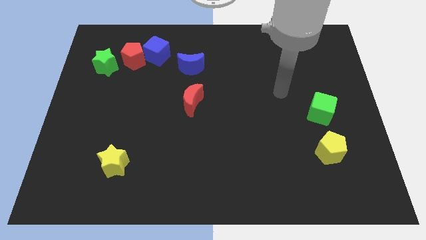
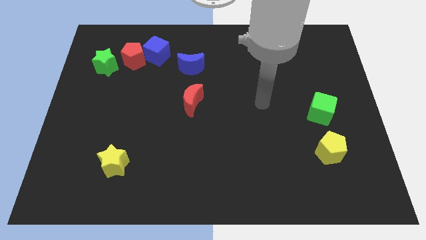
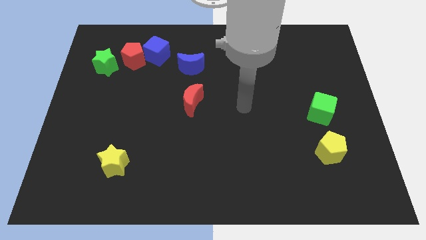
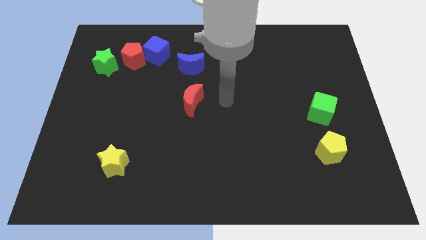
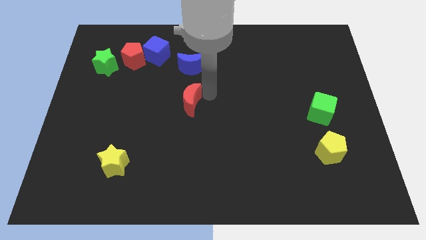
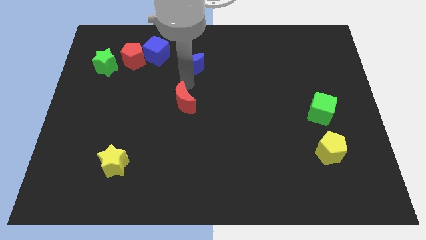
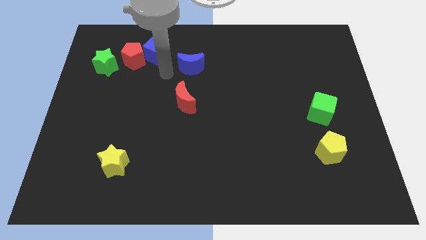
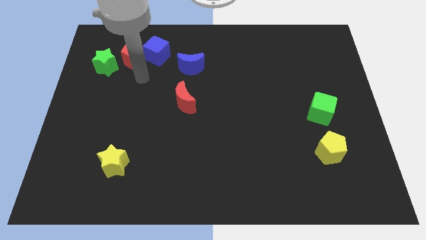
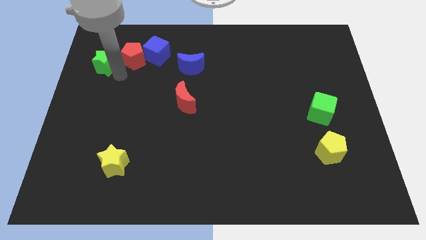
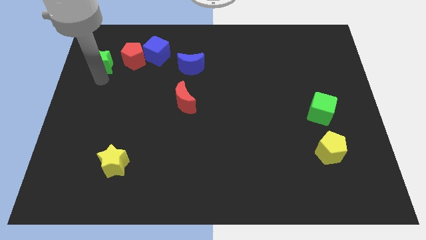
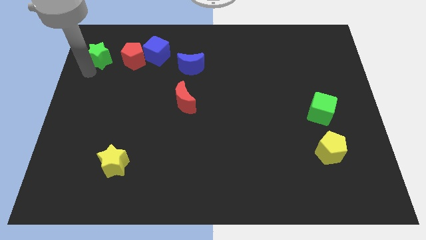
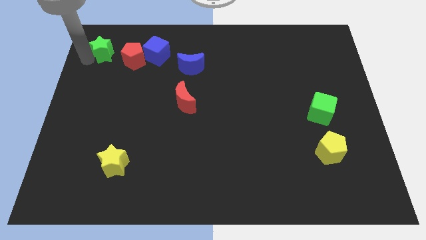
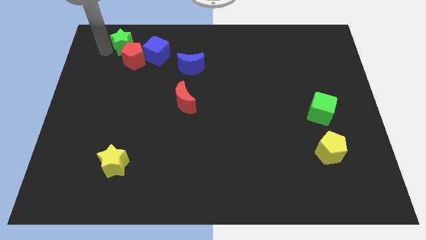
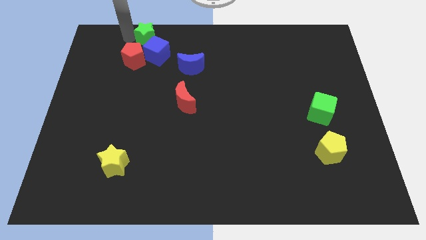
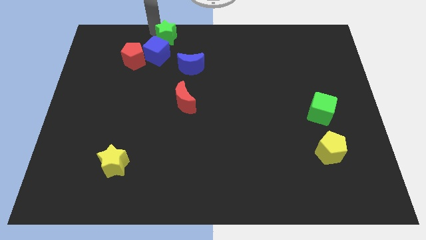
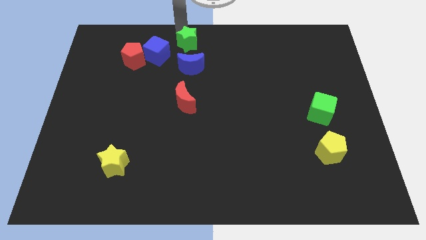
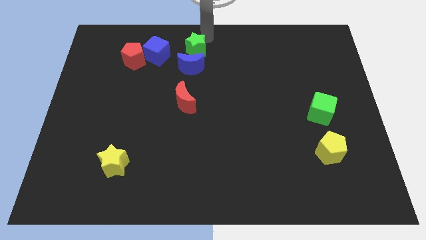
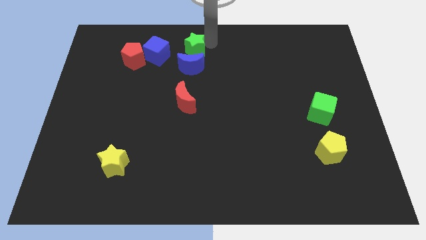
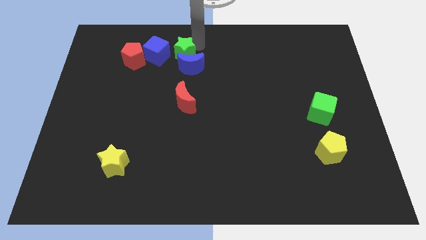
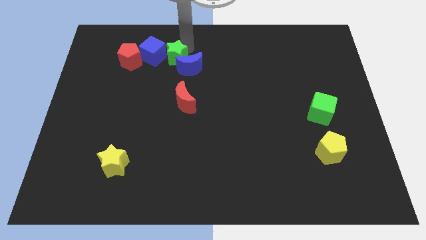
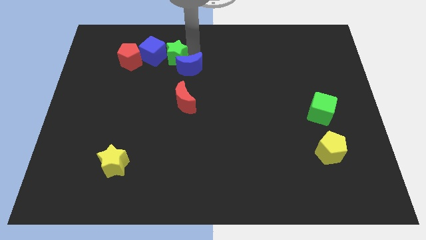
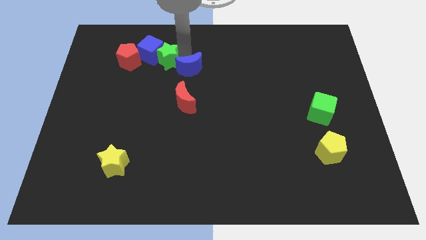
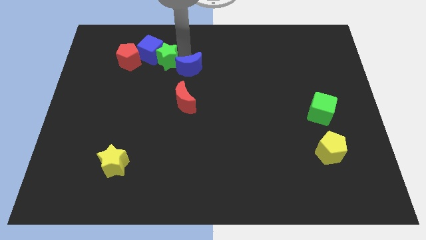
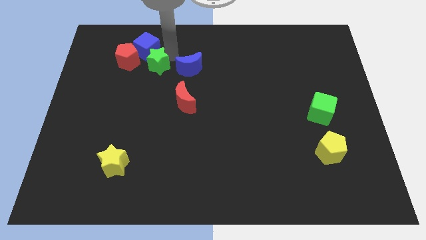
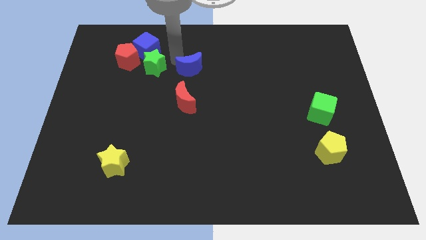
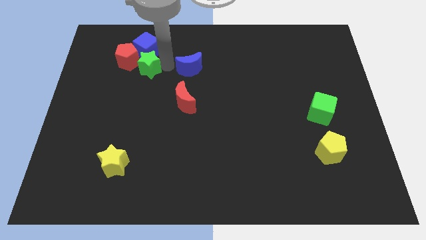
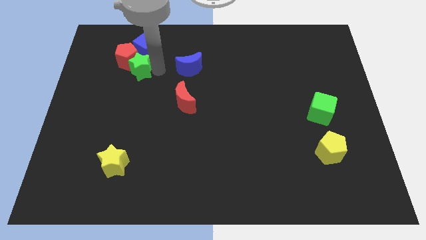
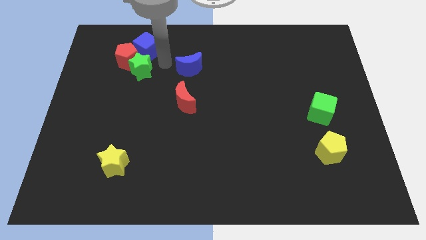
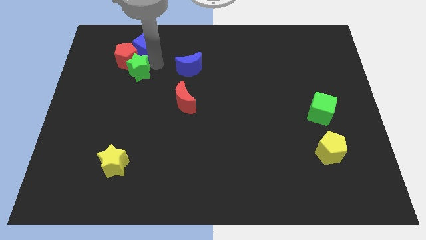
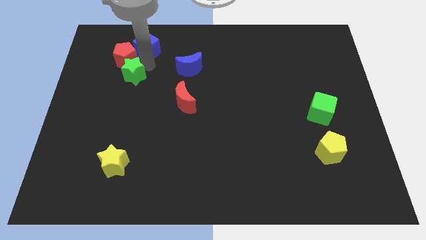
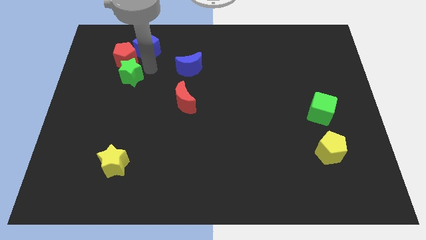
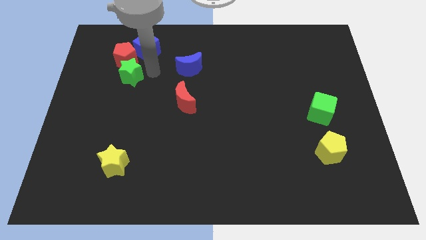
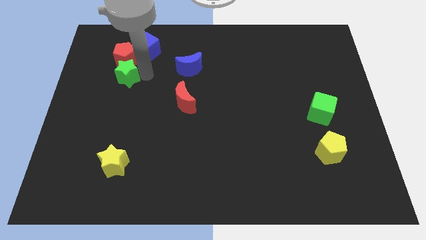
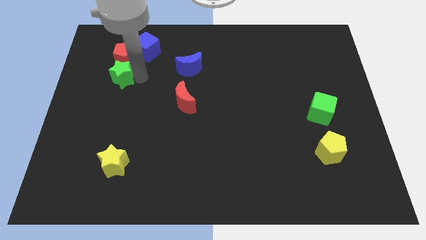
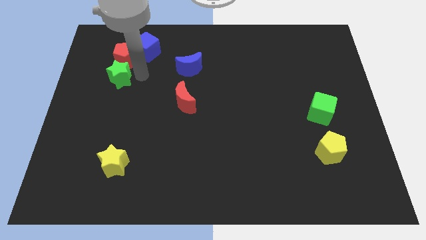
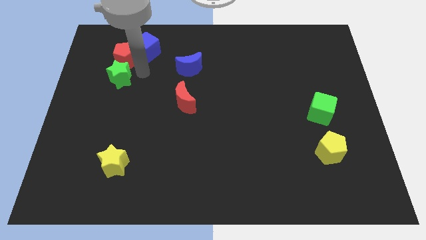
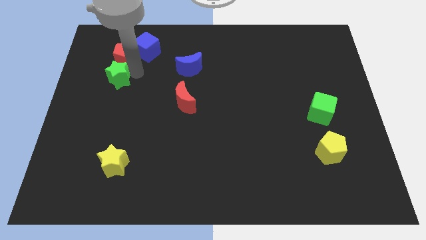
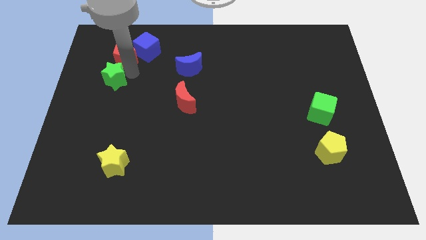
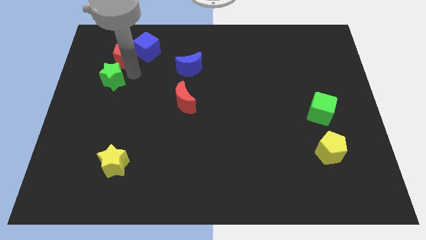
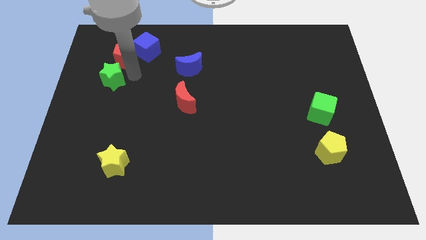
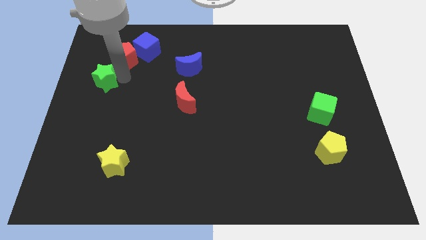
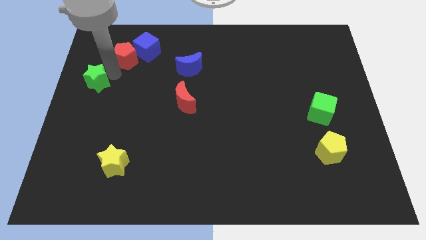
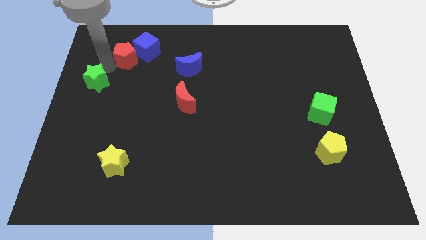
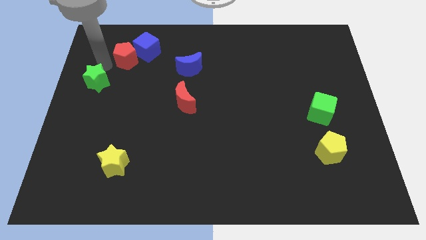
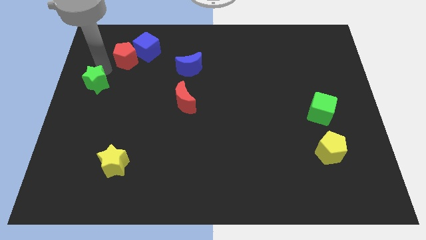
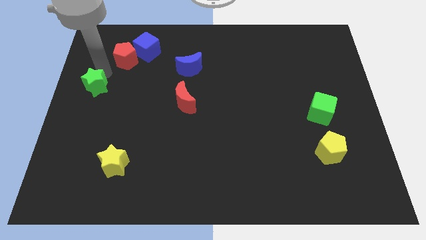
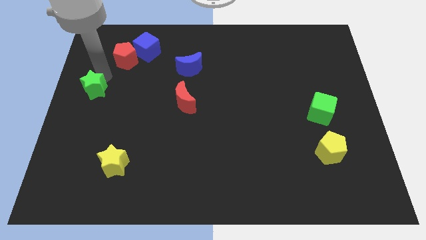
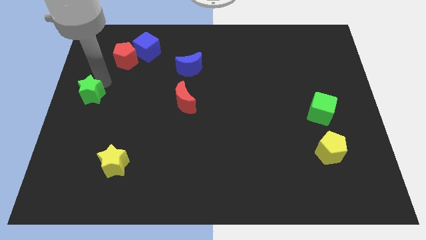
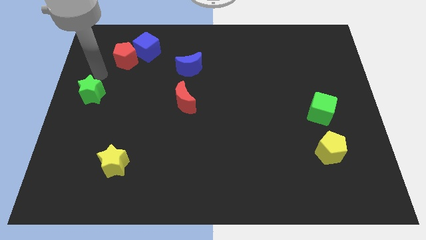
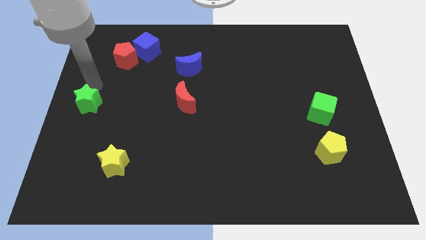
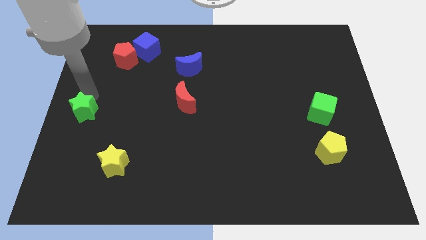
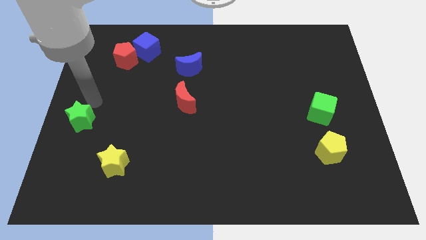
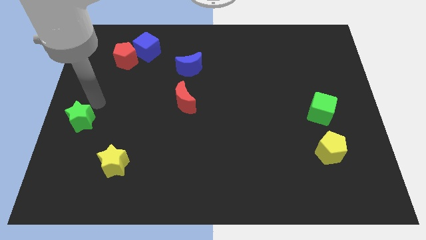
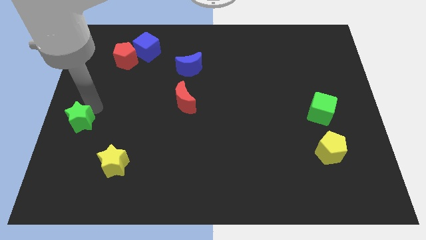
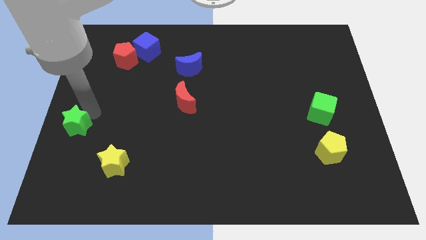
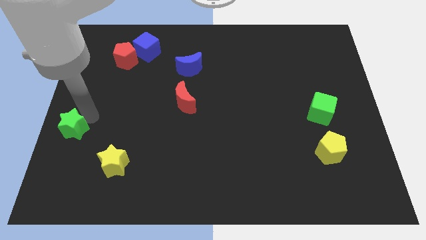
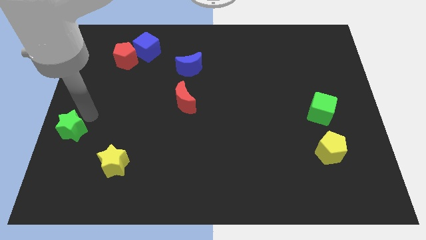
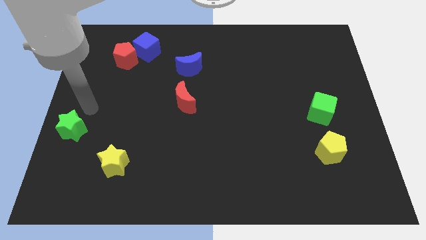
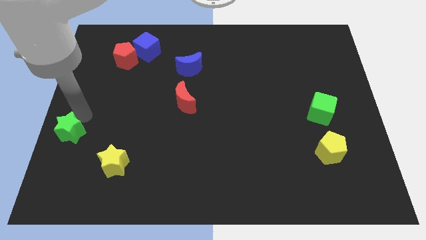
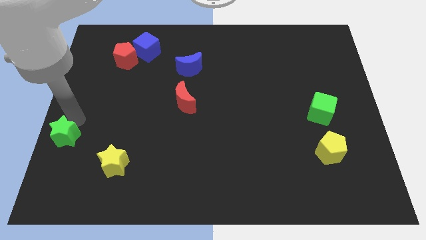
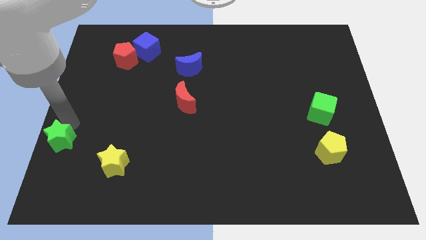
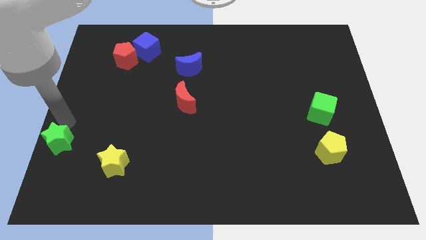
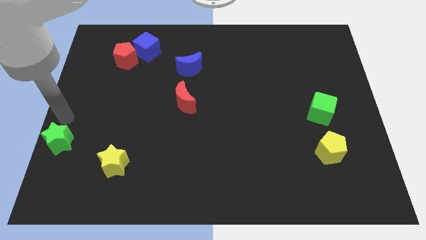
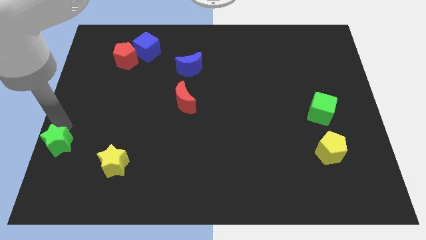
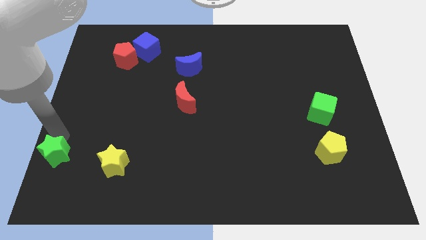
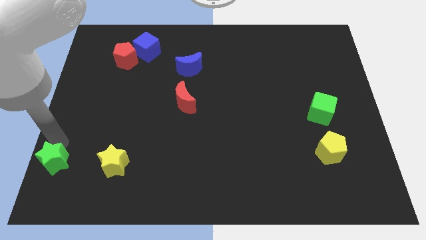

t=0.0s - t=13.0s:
push the green star to the bottom left corner
